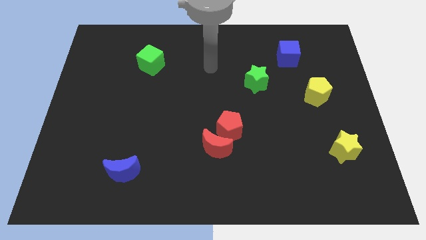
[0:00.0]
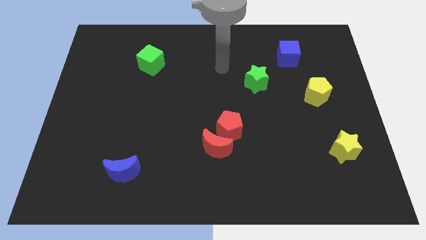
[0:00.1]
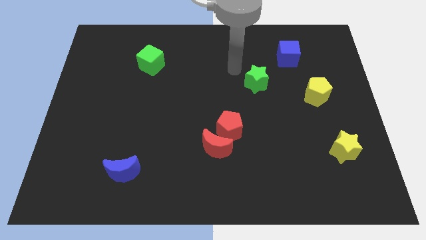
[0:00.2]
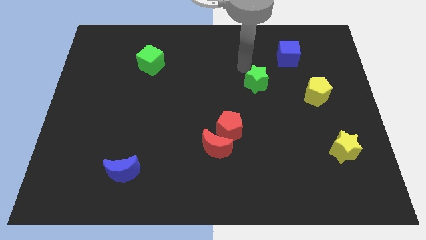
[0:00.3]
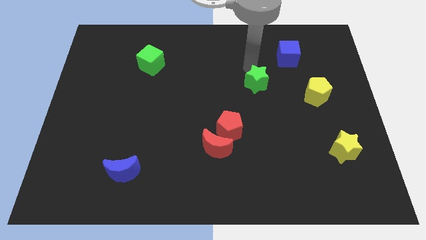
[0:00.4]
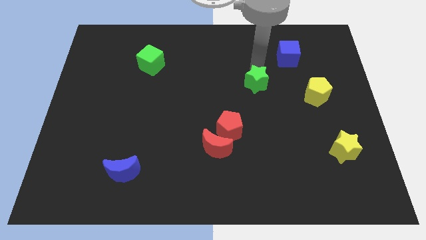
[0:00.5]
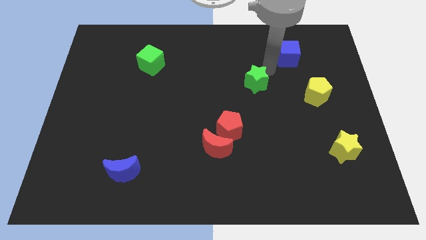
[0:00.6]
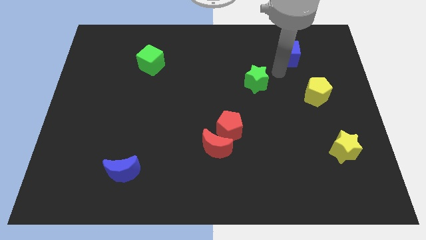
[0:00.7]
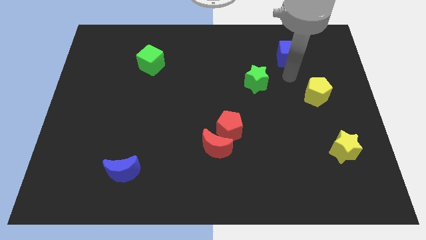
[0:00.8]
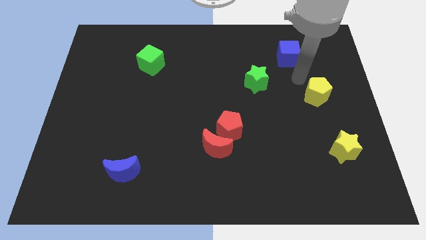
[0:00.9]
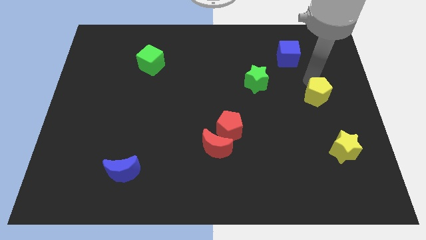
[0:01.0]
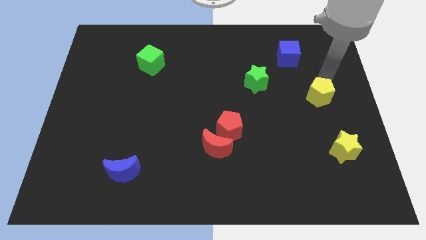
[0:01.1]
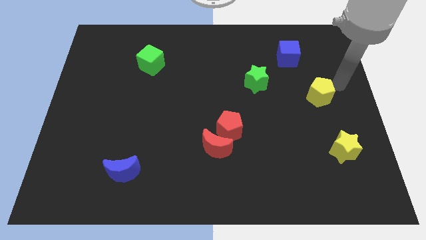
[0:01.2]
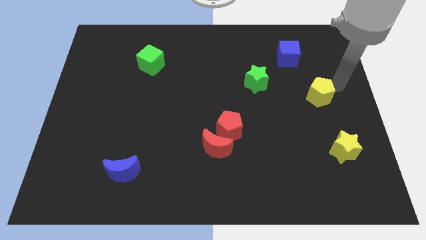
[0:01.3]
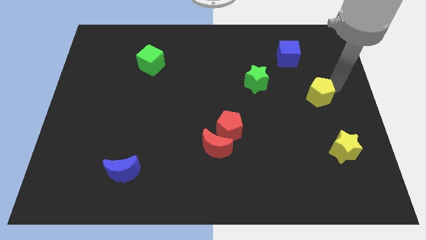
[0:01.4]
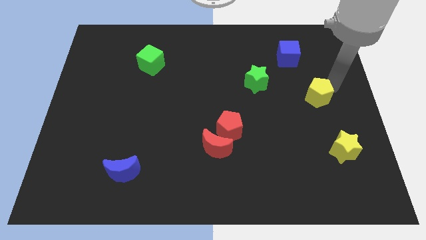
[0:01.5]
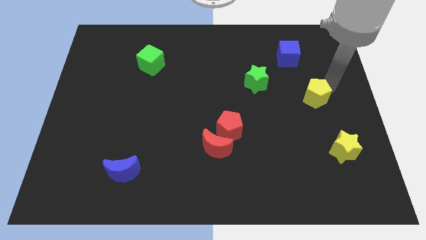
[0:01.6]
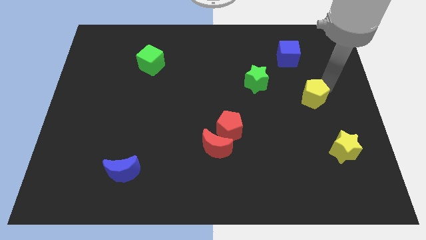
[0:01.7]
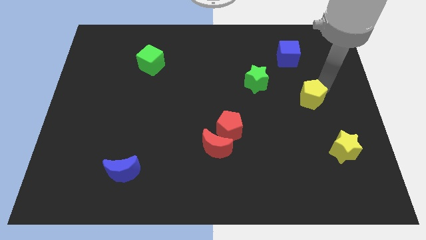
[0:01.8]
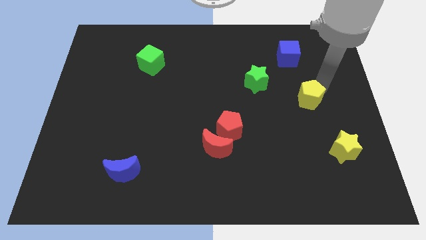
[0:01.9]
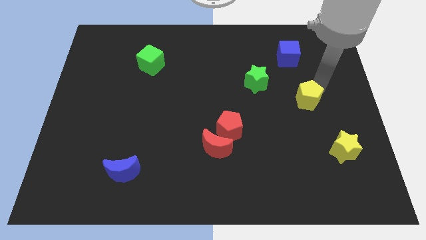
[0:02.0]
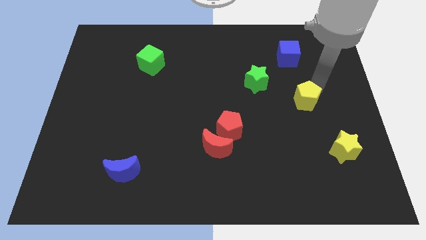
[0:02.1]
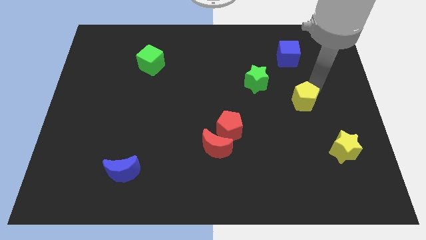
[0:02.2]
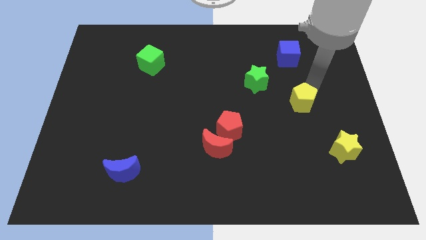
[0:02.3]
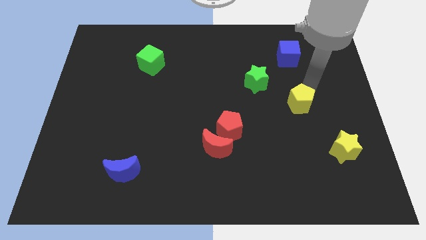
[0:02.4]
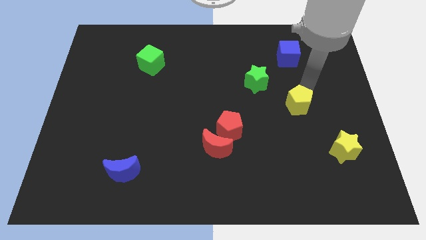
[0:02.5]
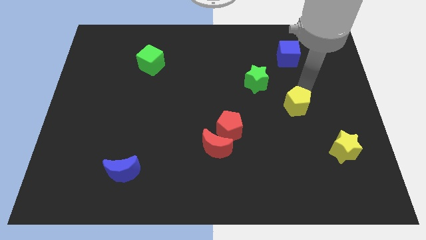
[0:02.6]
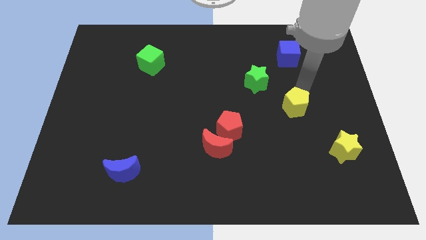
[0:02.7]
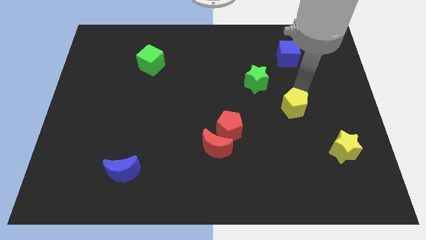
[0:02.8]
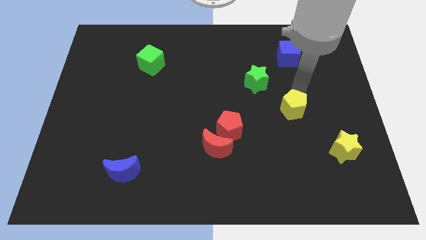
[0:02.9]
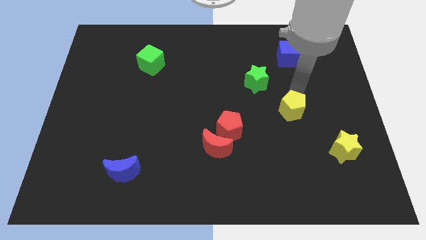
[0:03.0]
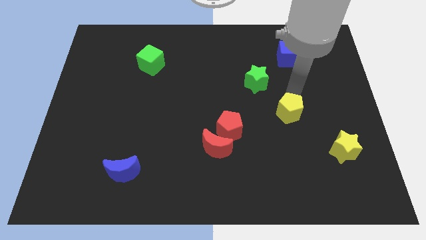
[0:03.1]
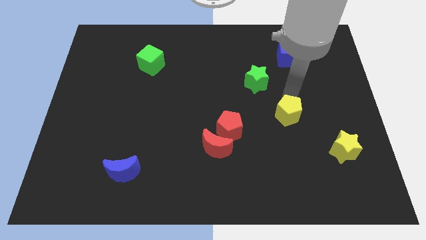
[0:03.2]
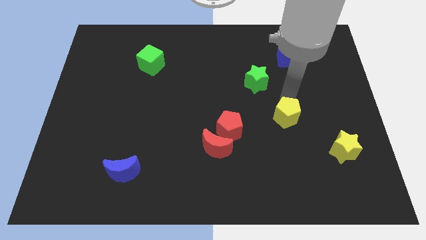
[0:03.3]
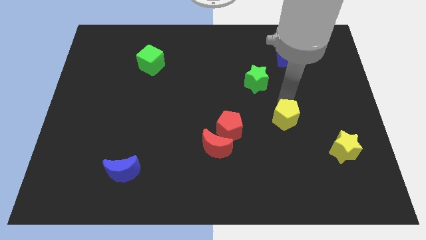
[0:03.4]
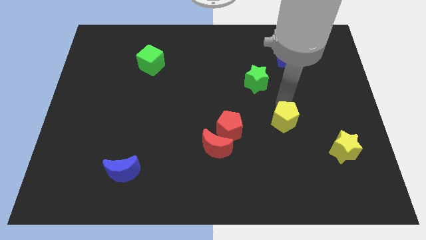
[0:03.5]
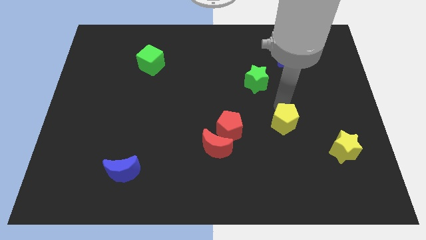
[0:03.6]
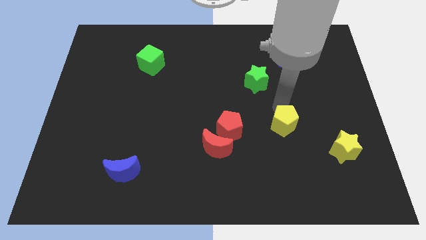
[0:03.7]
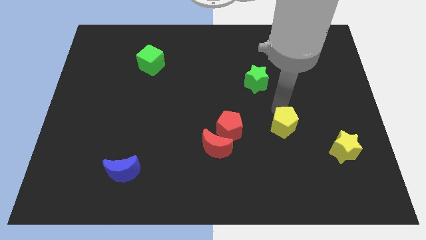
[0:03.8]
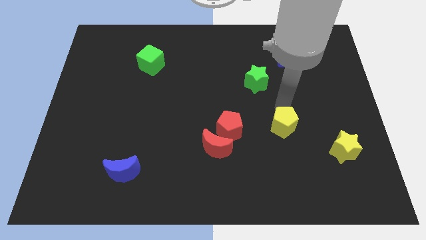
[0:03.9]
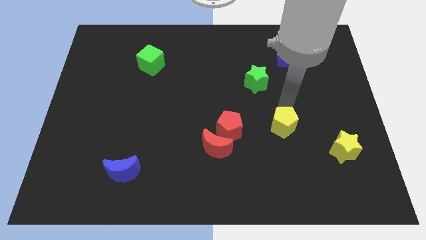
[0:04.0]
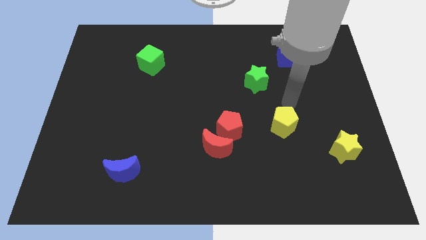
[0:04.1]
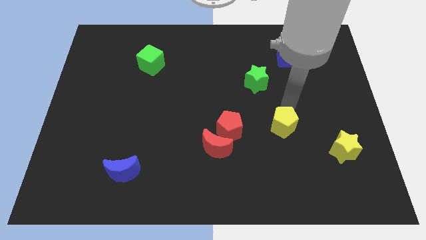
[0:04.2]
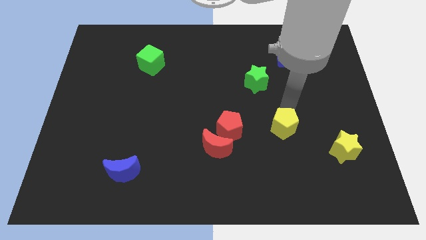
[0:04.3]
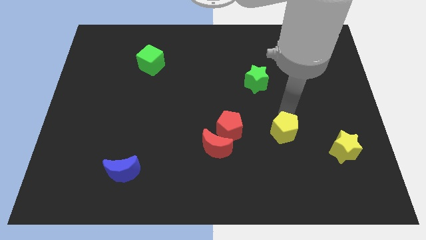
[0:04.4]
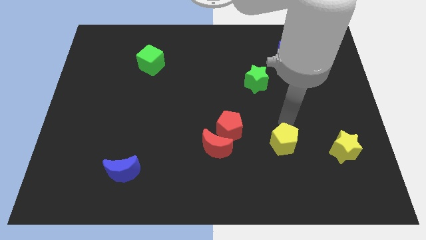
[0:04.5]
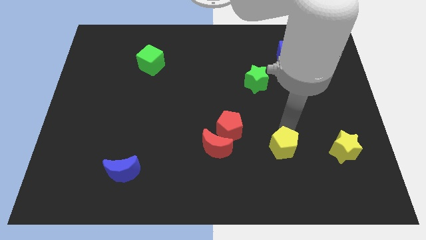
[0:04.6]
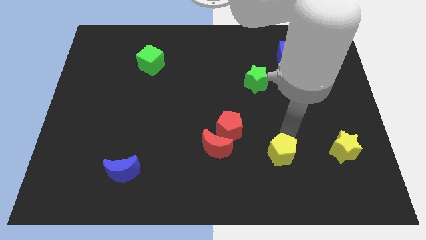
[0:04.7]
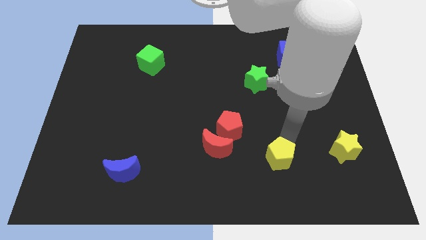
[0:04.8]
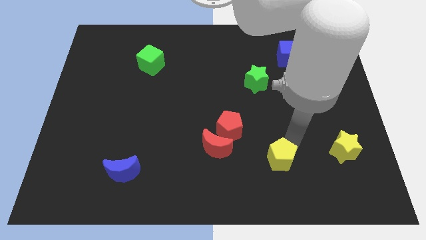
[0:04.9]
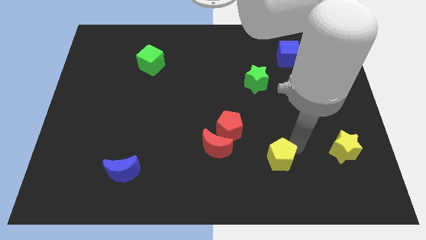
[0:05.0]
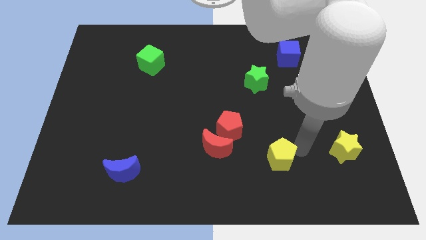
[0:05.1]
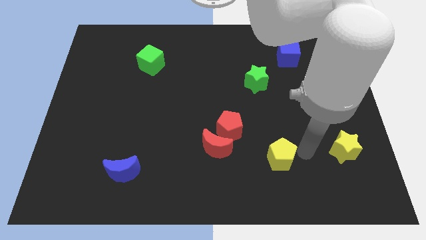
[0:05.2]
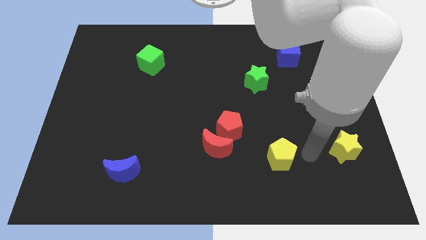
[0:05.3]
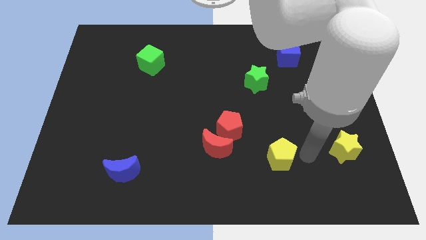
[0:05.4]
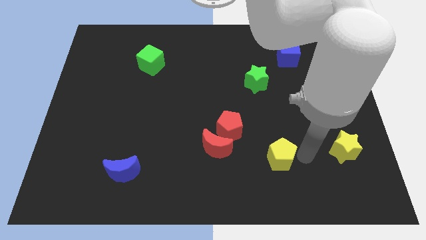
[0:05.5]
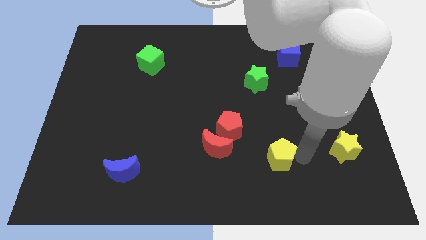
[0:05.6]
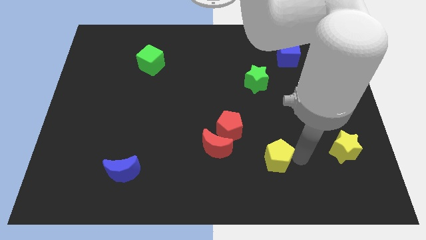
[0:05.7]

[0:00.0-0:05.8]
slide the yellow pentagon down and left

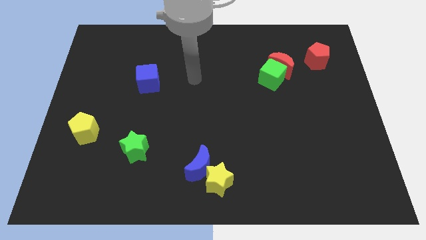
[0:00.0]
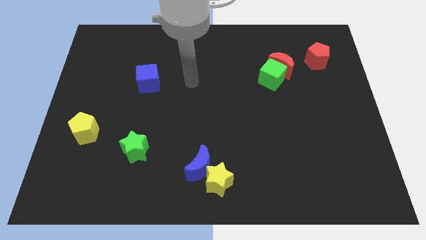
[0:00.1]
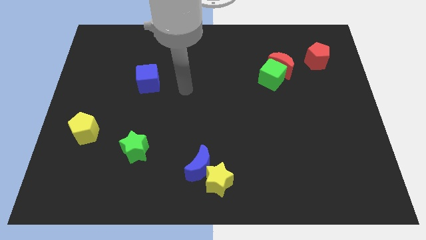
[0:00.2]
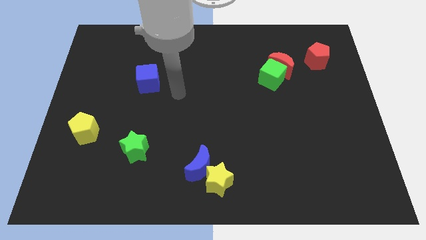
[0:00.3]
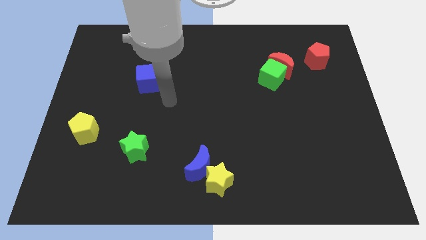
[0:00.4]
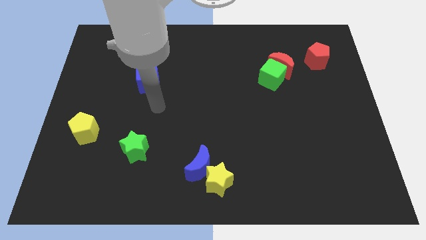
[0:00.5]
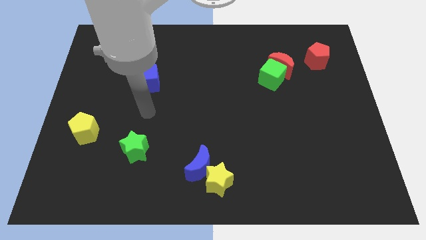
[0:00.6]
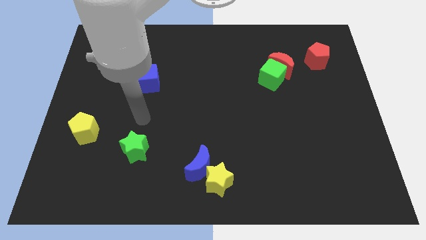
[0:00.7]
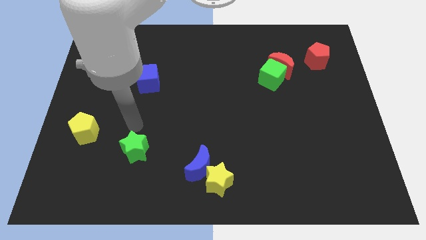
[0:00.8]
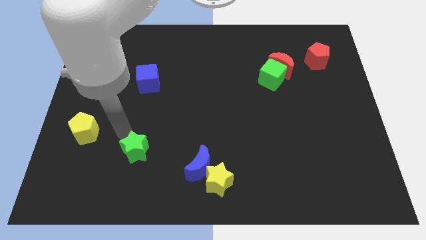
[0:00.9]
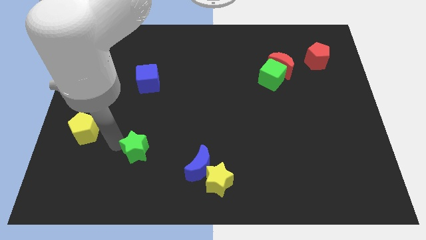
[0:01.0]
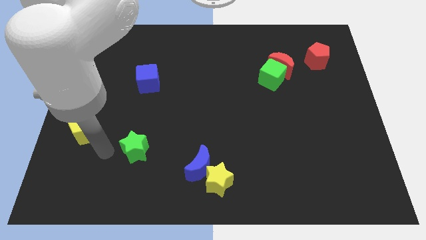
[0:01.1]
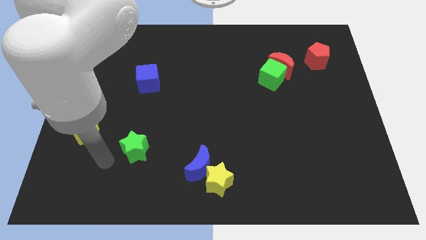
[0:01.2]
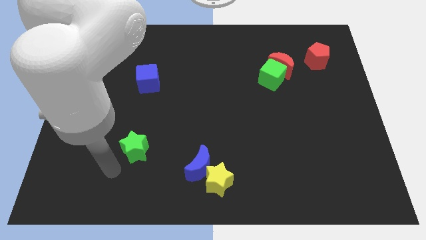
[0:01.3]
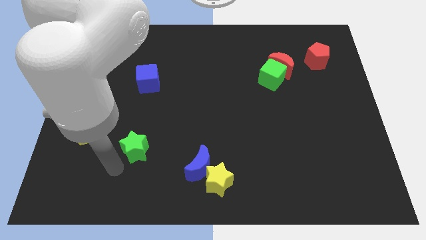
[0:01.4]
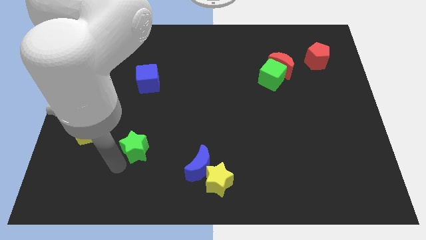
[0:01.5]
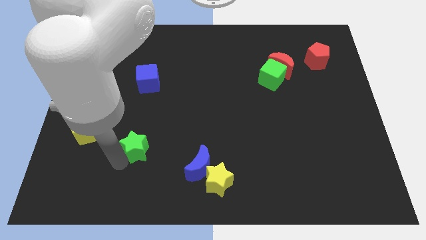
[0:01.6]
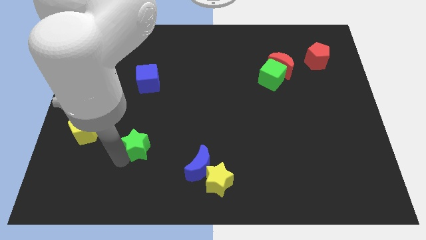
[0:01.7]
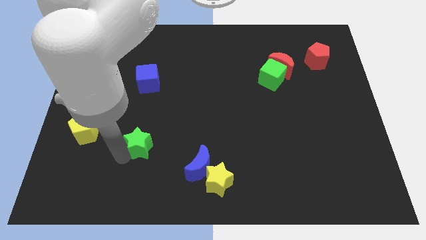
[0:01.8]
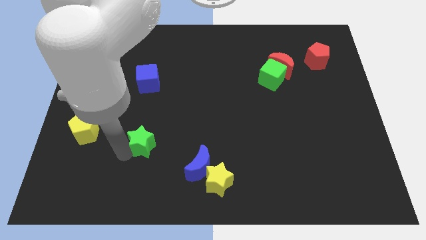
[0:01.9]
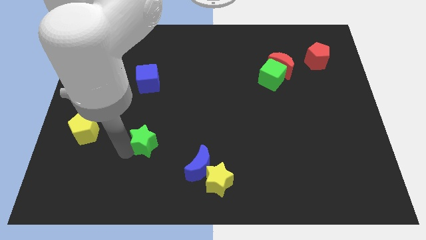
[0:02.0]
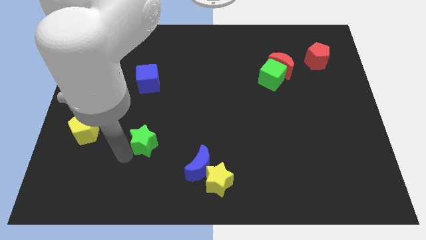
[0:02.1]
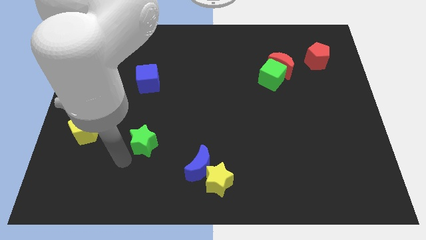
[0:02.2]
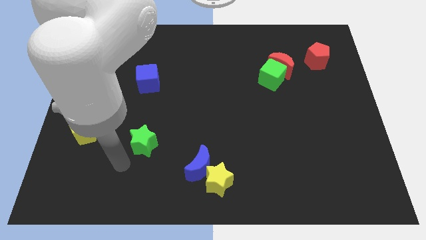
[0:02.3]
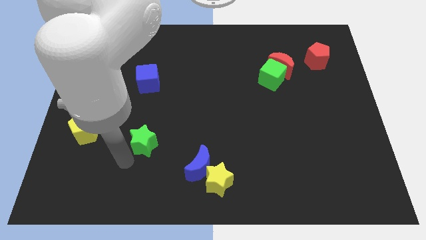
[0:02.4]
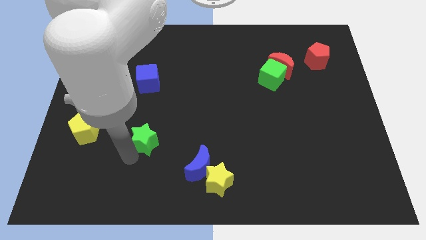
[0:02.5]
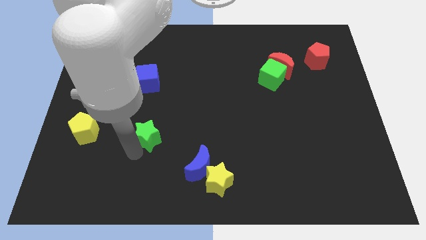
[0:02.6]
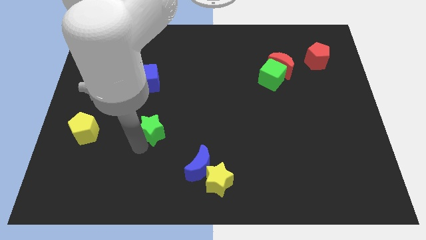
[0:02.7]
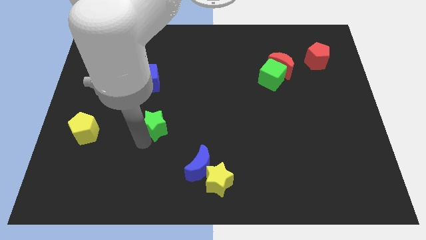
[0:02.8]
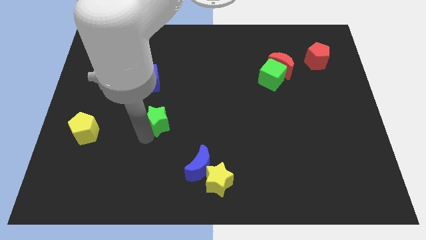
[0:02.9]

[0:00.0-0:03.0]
slide the green star slightly diagonally up and to the right
